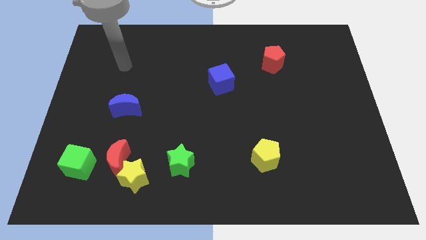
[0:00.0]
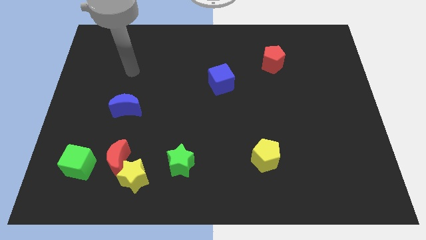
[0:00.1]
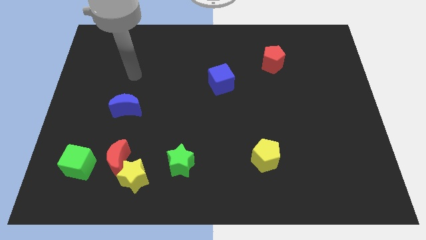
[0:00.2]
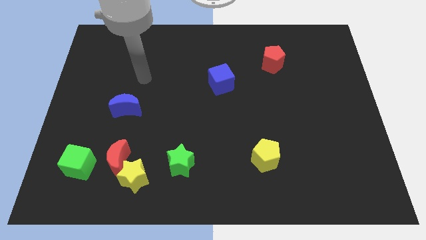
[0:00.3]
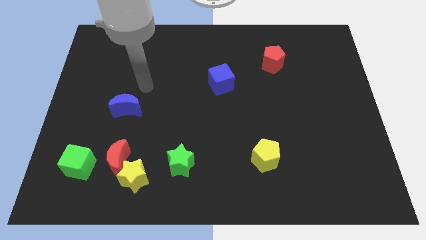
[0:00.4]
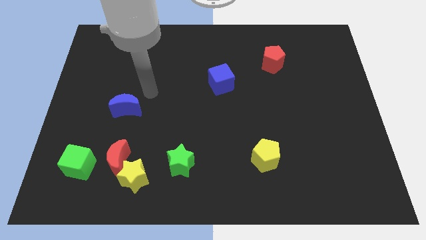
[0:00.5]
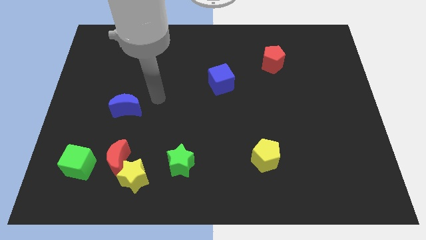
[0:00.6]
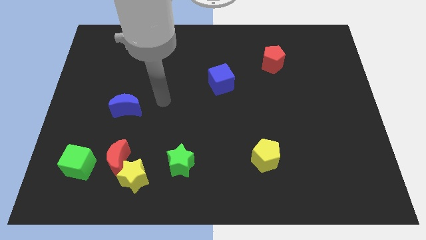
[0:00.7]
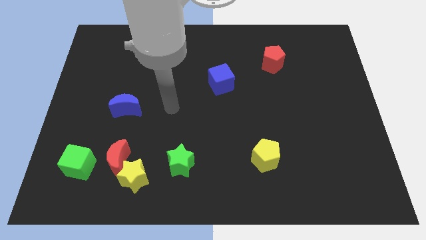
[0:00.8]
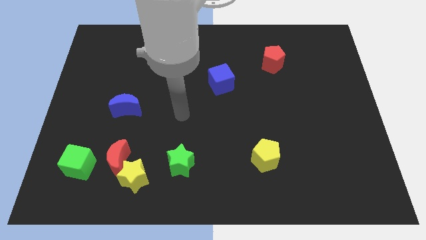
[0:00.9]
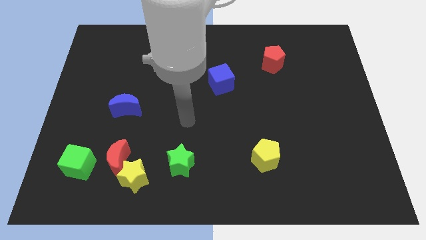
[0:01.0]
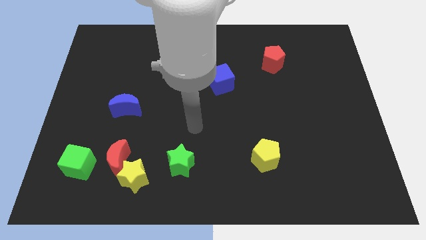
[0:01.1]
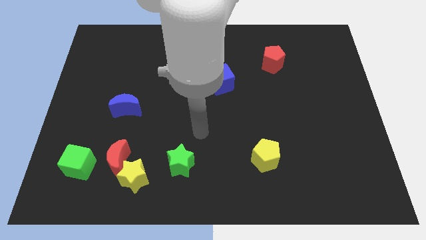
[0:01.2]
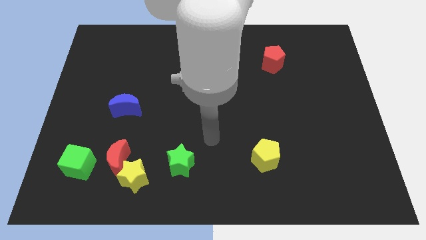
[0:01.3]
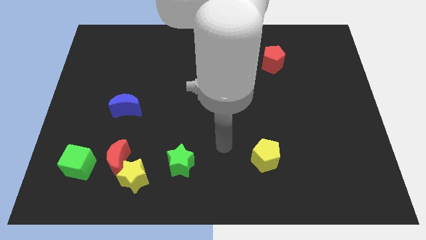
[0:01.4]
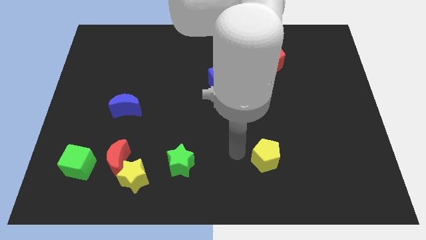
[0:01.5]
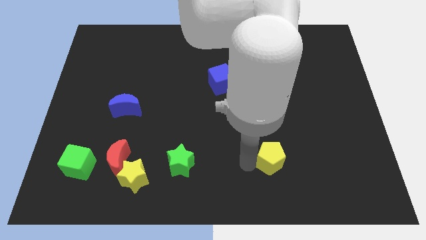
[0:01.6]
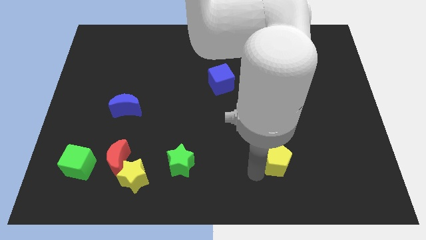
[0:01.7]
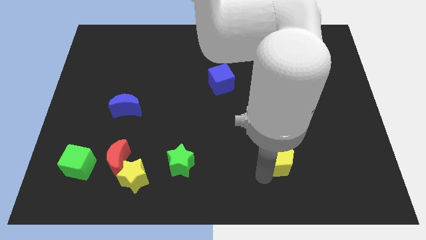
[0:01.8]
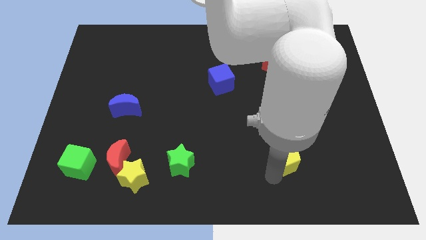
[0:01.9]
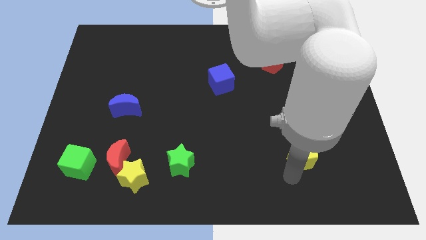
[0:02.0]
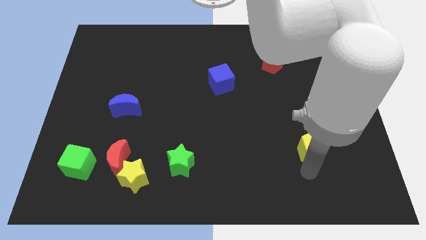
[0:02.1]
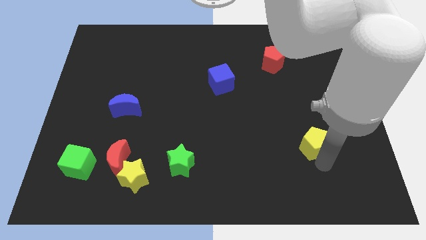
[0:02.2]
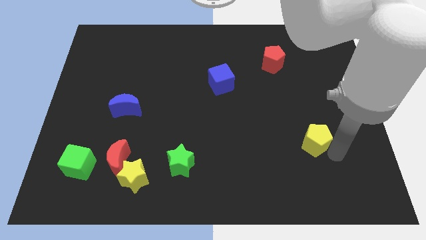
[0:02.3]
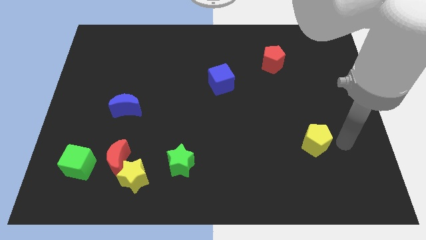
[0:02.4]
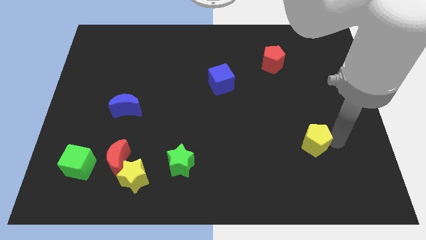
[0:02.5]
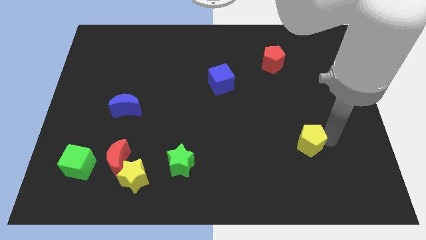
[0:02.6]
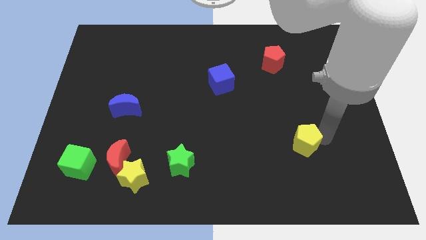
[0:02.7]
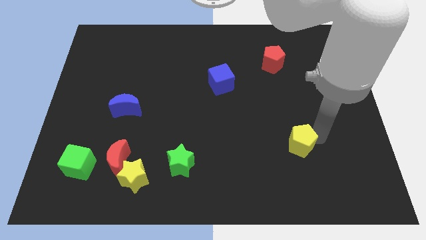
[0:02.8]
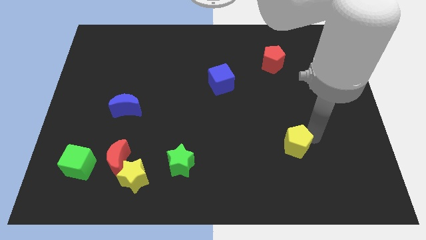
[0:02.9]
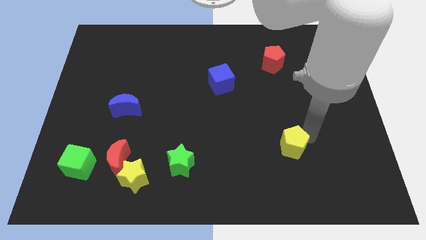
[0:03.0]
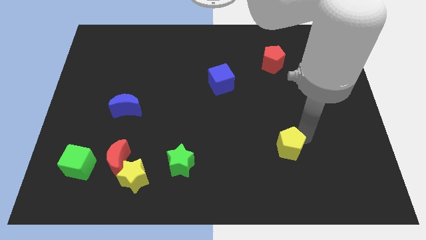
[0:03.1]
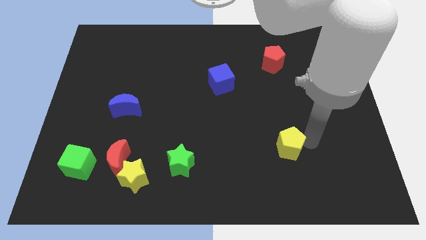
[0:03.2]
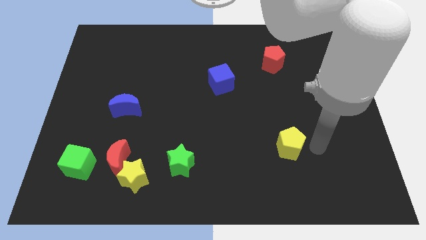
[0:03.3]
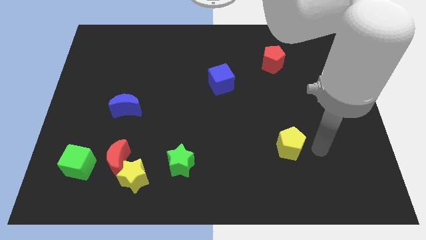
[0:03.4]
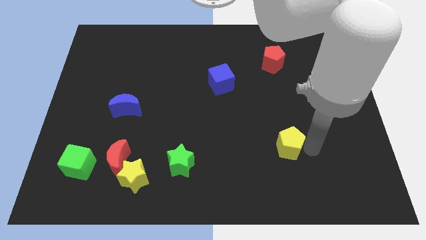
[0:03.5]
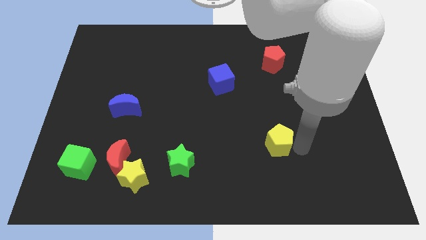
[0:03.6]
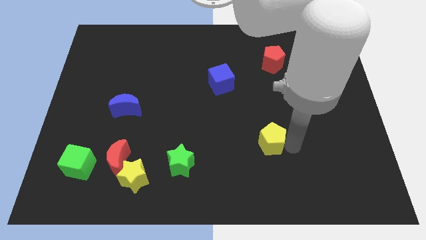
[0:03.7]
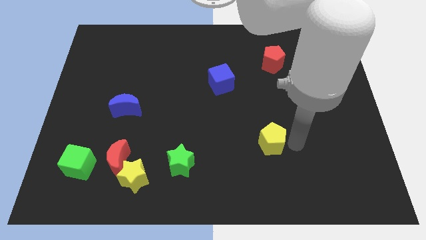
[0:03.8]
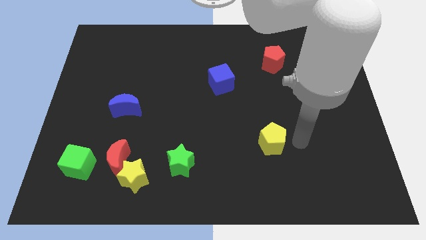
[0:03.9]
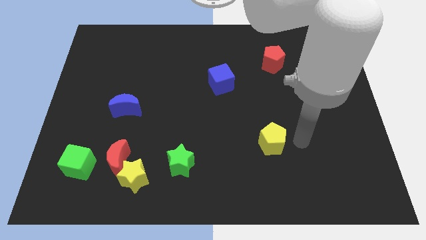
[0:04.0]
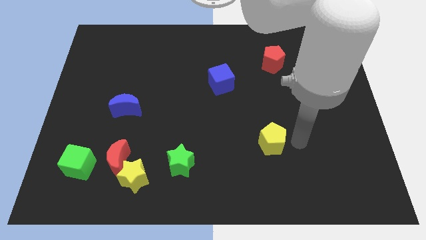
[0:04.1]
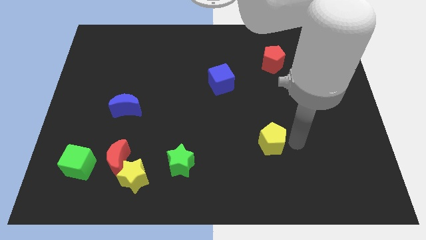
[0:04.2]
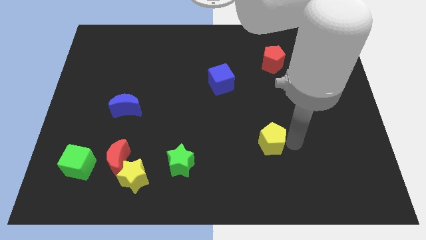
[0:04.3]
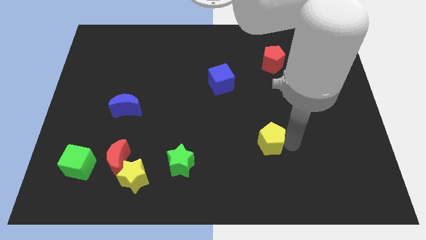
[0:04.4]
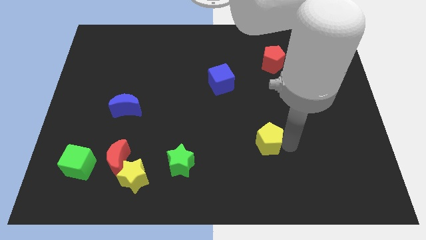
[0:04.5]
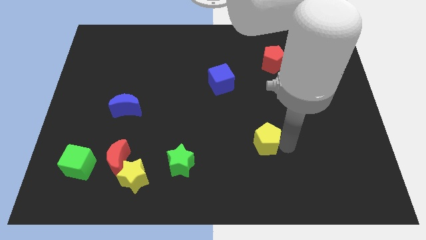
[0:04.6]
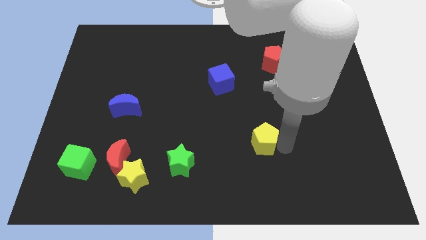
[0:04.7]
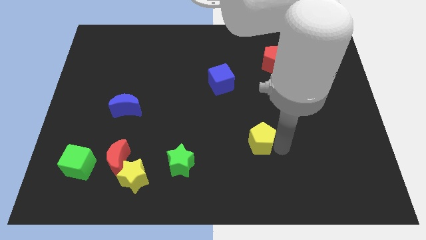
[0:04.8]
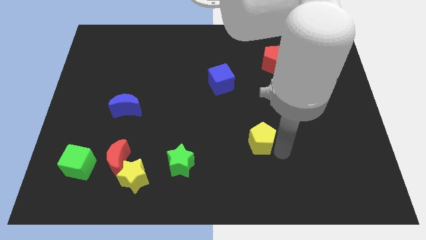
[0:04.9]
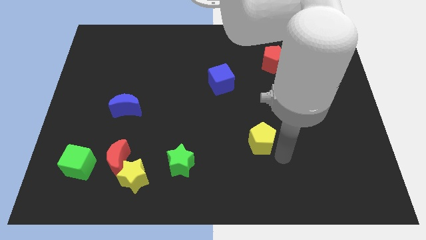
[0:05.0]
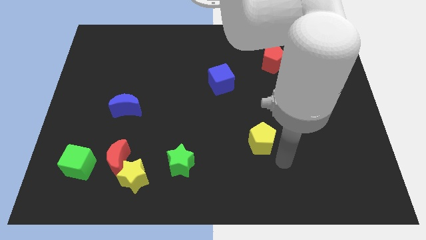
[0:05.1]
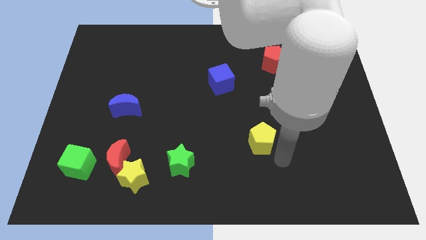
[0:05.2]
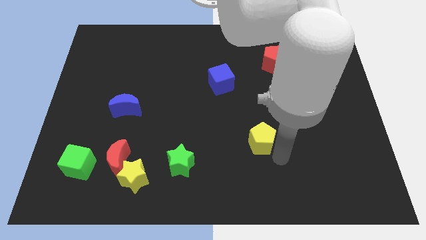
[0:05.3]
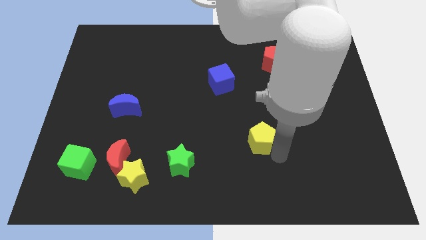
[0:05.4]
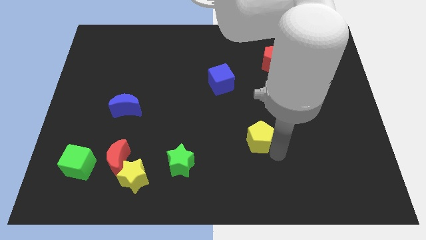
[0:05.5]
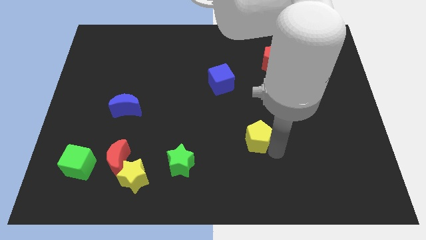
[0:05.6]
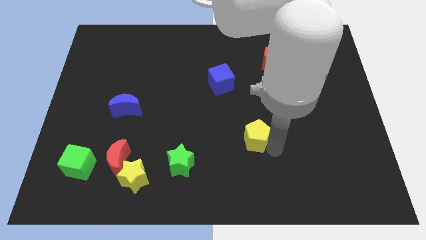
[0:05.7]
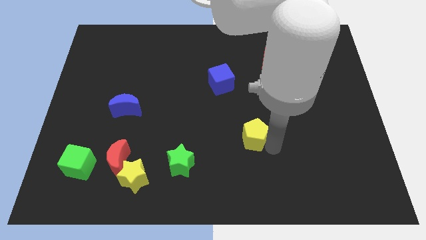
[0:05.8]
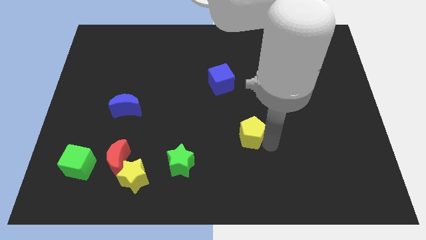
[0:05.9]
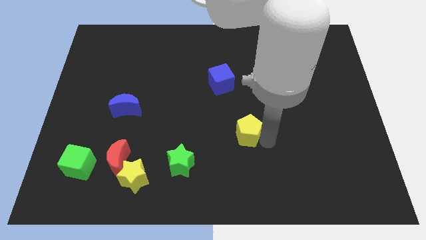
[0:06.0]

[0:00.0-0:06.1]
slide the yellow pentagon a little bit up and left diagonally

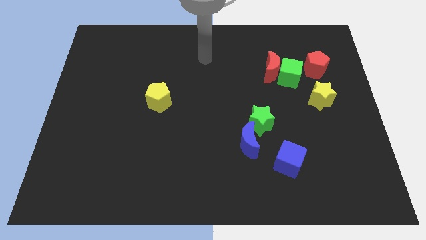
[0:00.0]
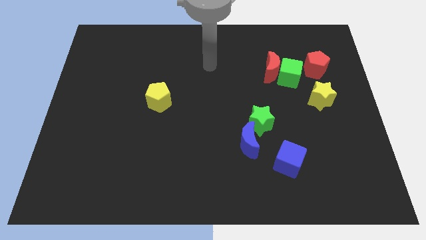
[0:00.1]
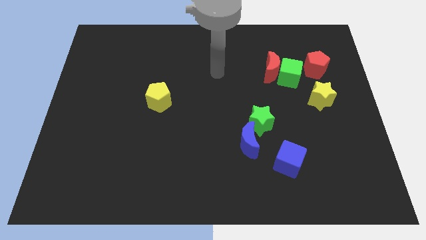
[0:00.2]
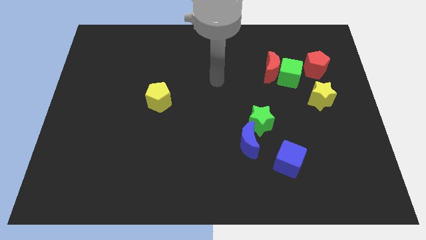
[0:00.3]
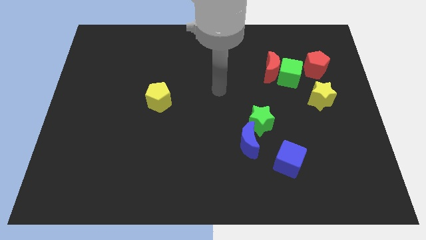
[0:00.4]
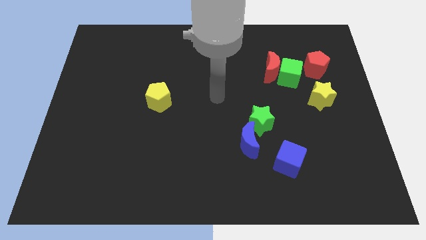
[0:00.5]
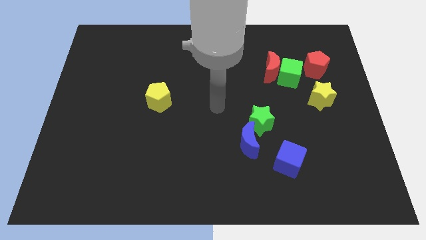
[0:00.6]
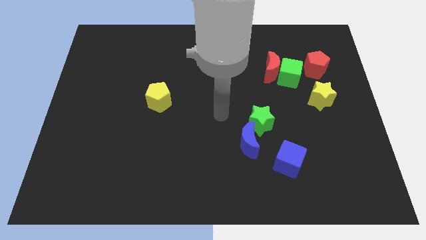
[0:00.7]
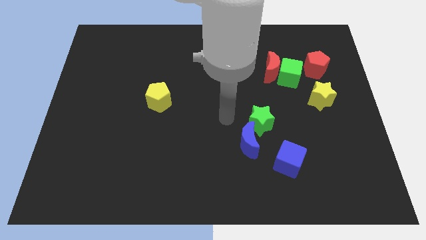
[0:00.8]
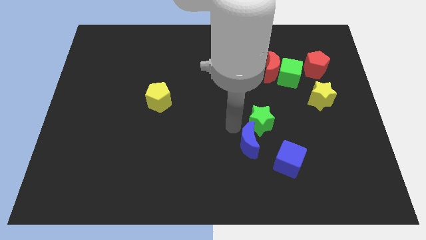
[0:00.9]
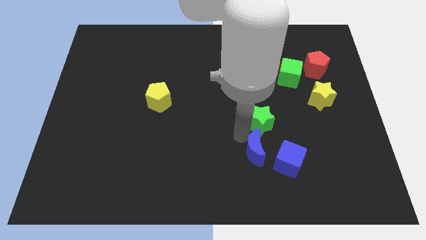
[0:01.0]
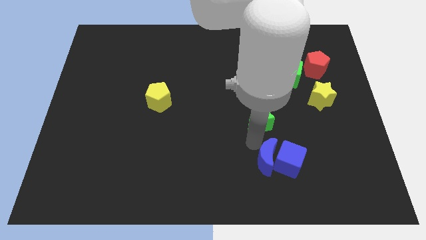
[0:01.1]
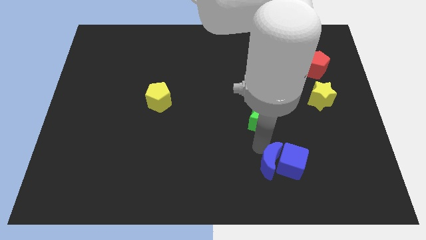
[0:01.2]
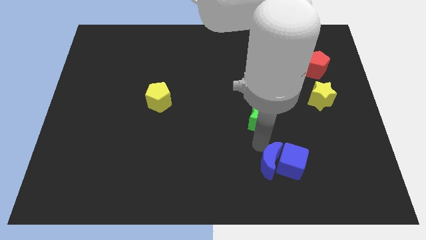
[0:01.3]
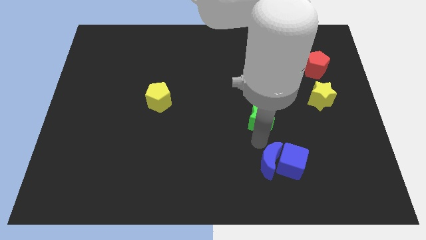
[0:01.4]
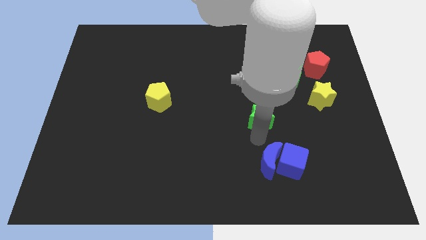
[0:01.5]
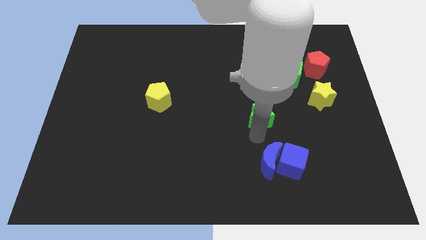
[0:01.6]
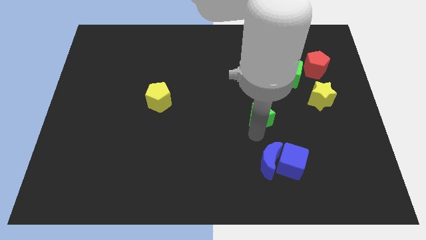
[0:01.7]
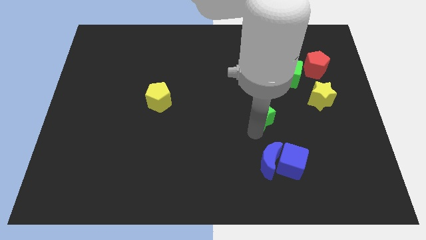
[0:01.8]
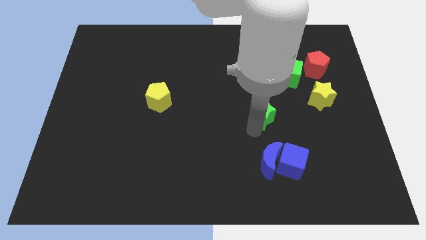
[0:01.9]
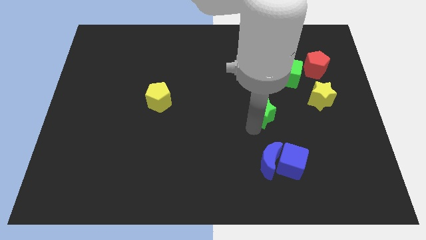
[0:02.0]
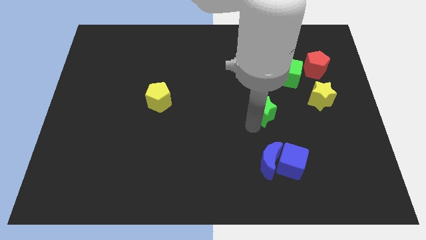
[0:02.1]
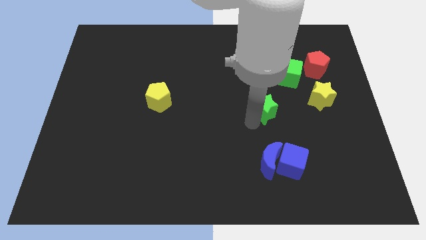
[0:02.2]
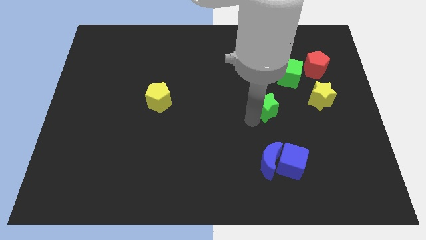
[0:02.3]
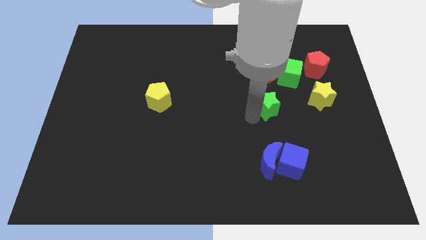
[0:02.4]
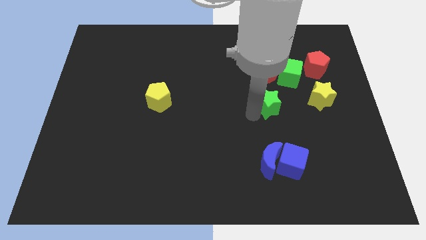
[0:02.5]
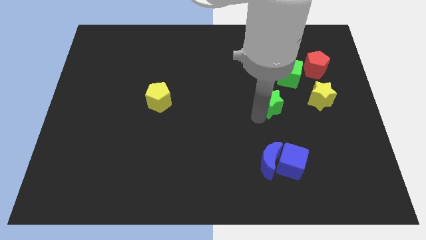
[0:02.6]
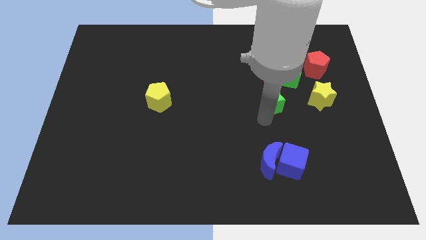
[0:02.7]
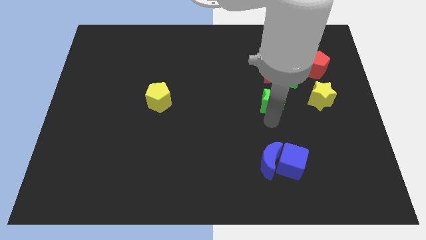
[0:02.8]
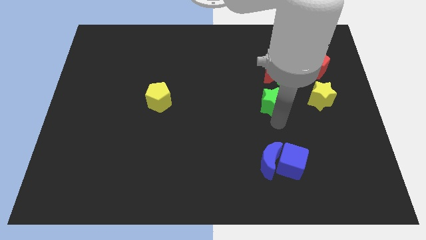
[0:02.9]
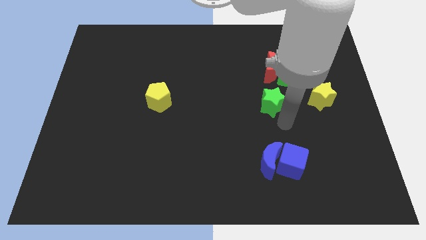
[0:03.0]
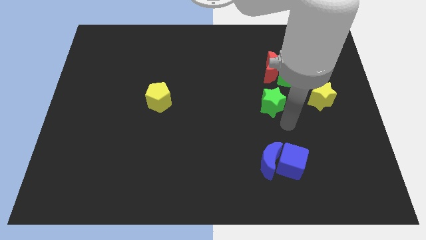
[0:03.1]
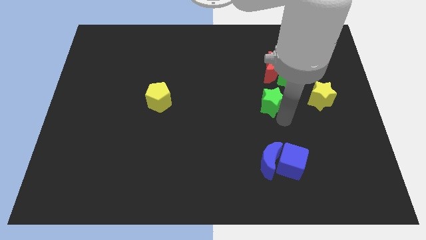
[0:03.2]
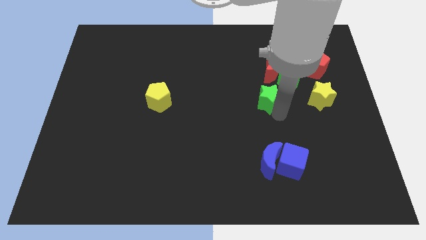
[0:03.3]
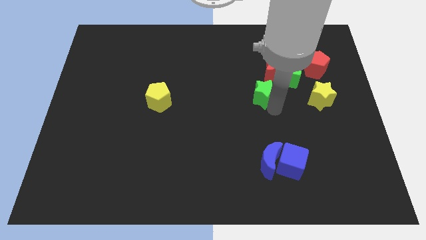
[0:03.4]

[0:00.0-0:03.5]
slide the green star a little bit upwards
